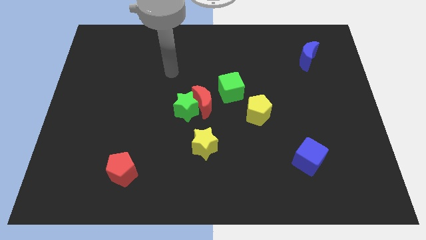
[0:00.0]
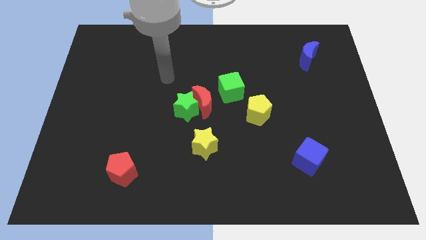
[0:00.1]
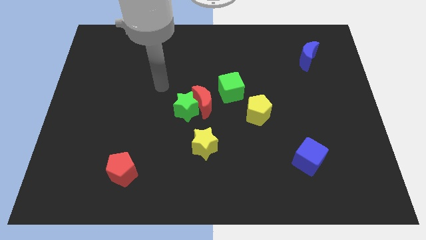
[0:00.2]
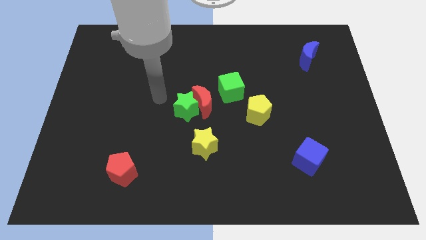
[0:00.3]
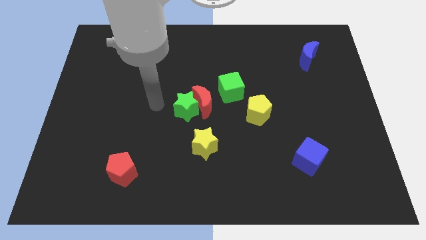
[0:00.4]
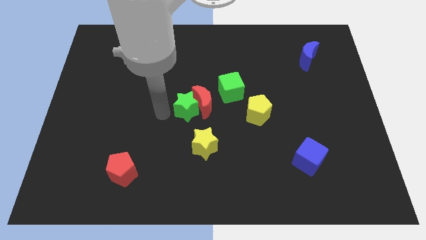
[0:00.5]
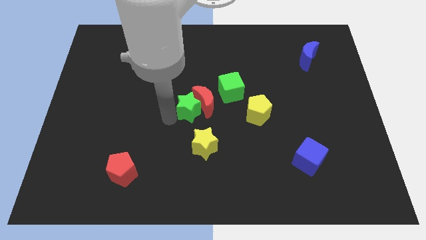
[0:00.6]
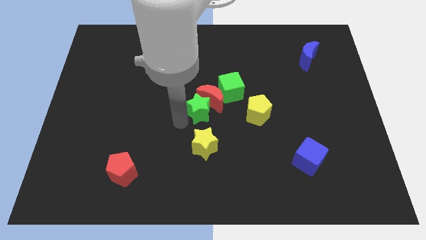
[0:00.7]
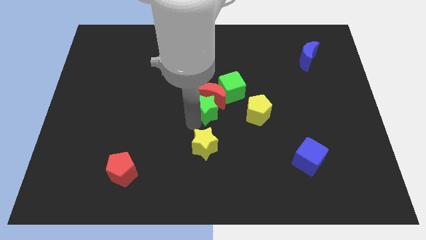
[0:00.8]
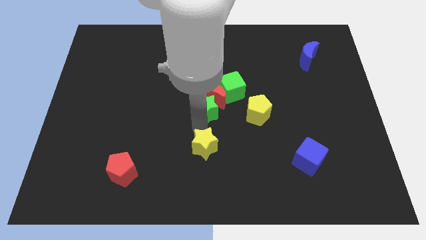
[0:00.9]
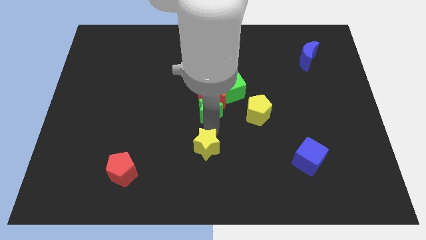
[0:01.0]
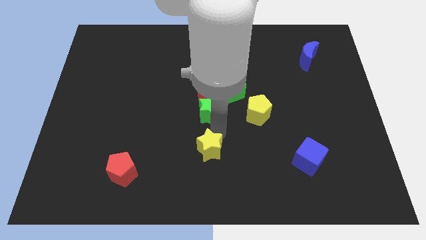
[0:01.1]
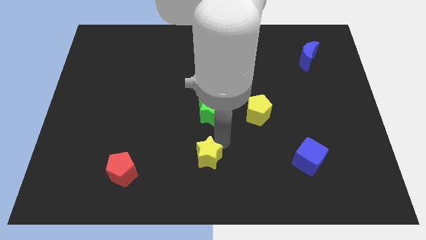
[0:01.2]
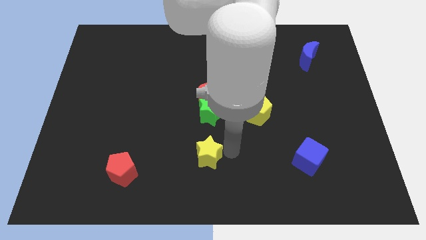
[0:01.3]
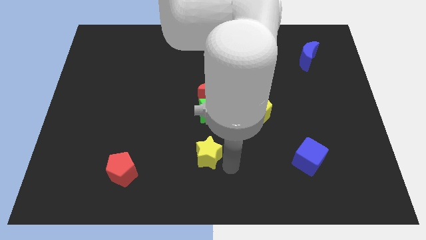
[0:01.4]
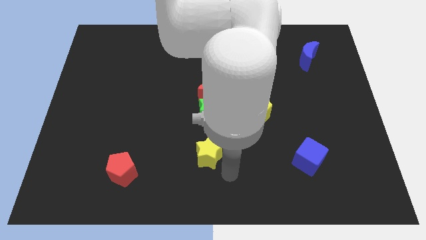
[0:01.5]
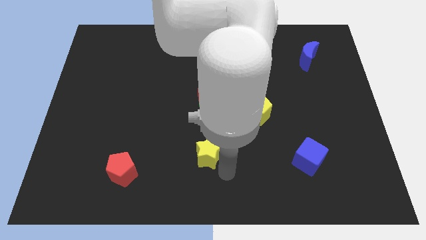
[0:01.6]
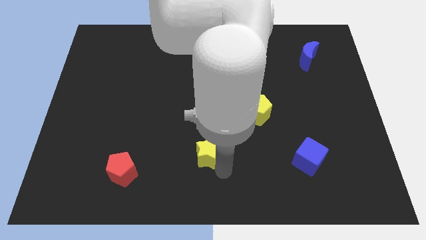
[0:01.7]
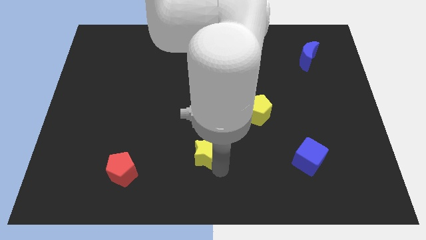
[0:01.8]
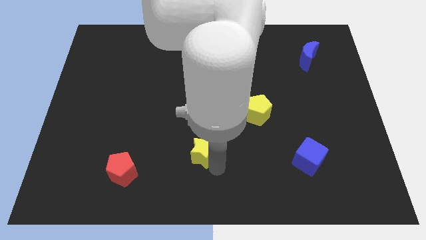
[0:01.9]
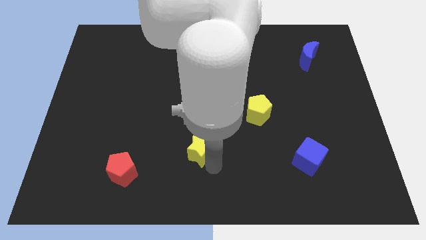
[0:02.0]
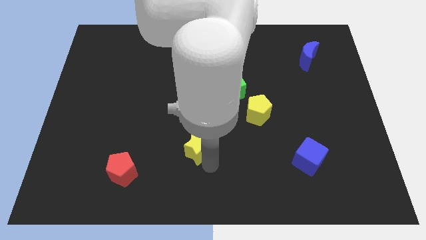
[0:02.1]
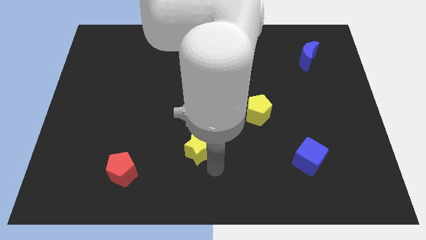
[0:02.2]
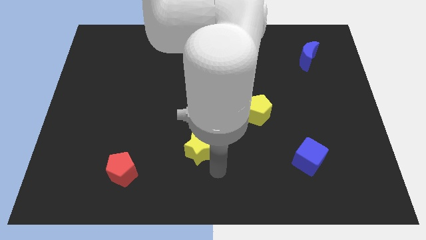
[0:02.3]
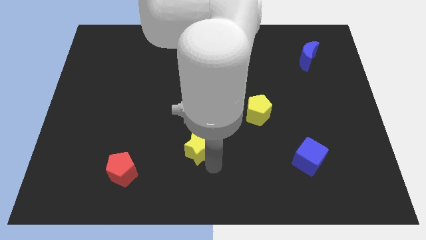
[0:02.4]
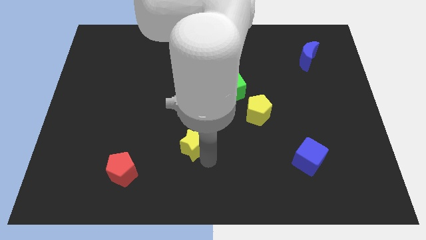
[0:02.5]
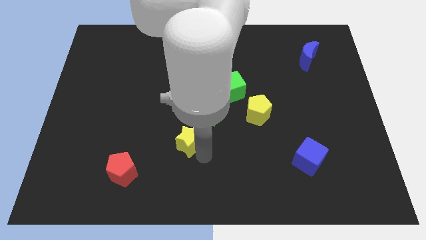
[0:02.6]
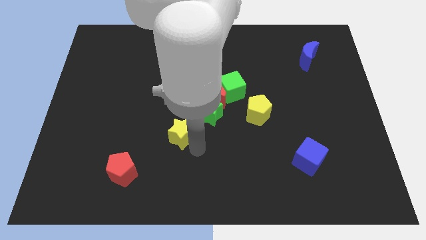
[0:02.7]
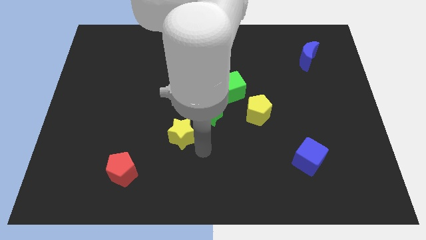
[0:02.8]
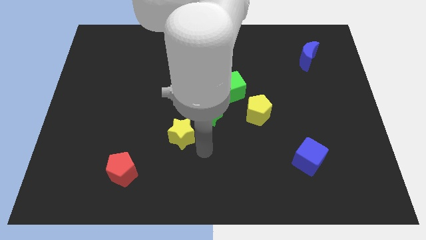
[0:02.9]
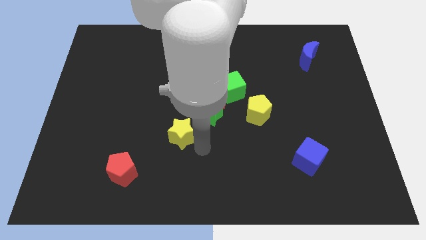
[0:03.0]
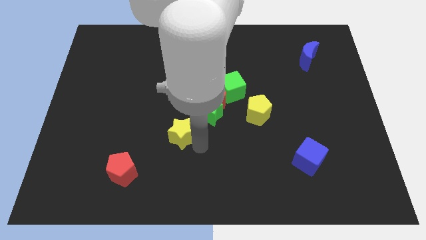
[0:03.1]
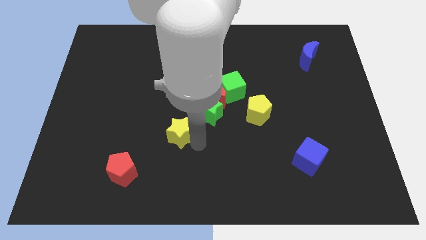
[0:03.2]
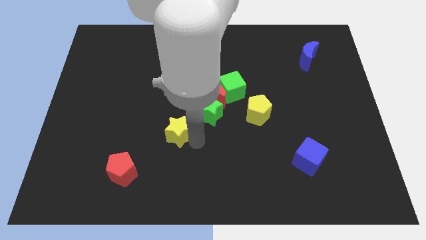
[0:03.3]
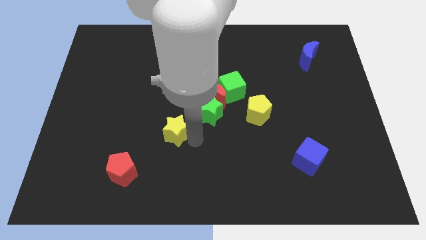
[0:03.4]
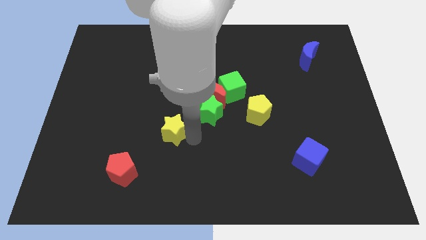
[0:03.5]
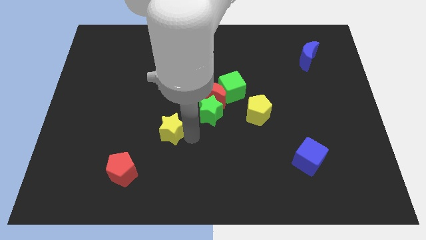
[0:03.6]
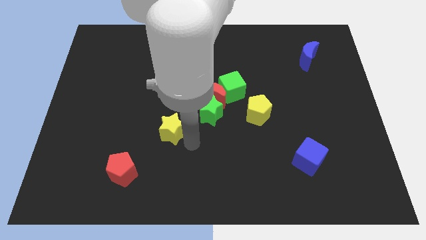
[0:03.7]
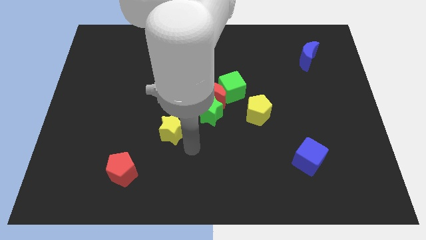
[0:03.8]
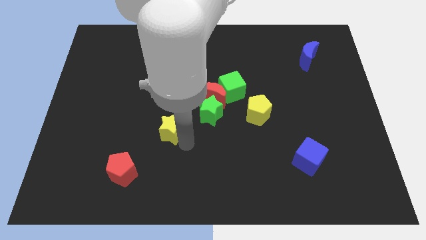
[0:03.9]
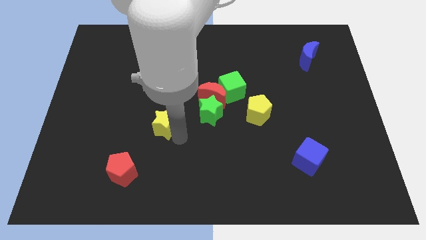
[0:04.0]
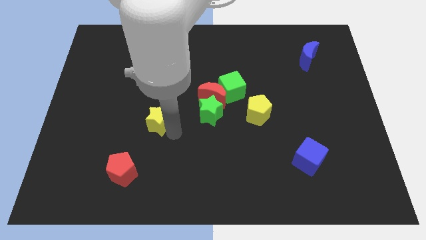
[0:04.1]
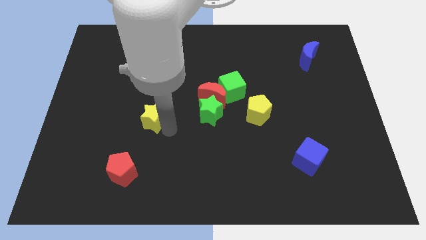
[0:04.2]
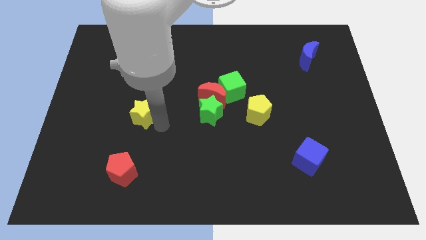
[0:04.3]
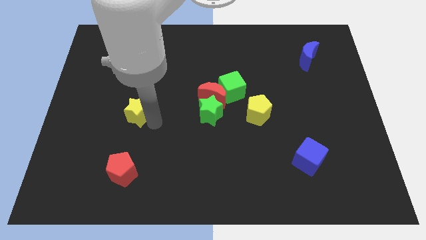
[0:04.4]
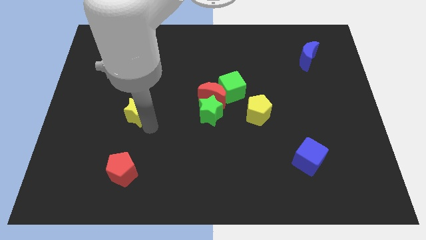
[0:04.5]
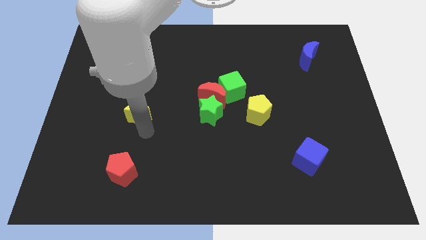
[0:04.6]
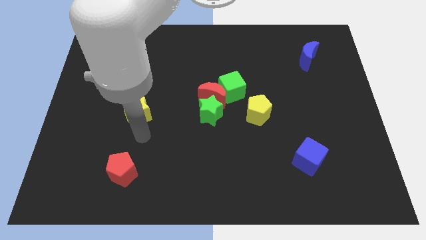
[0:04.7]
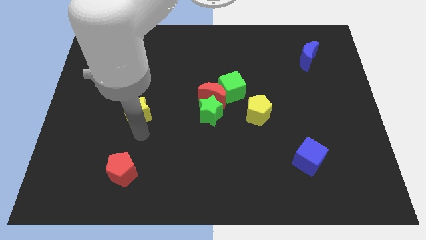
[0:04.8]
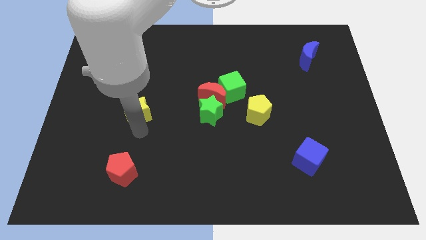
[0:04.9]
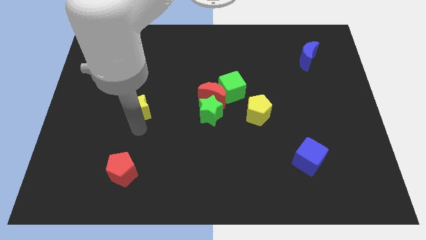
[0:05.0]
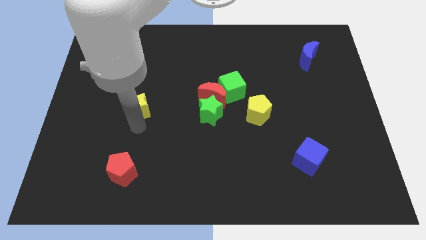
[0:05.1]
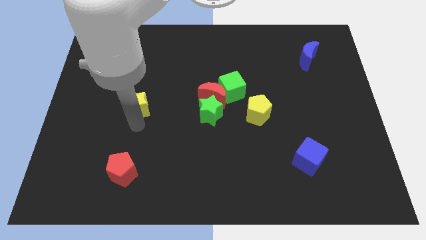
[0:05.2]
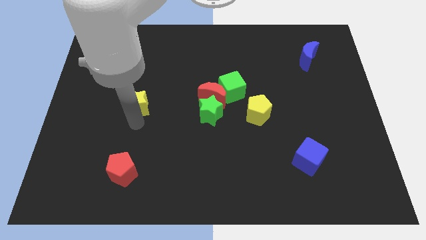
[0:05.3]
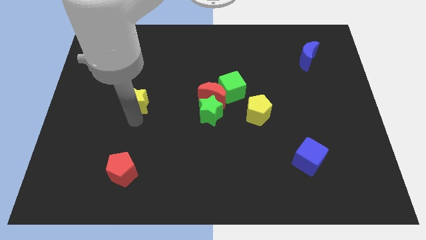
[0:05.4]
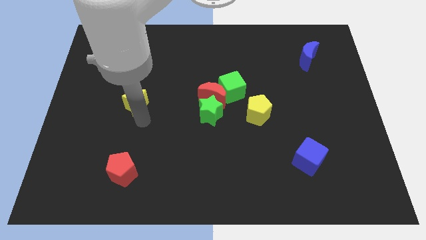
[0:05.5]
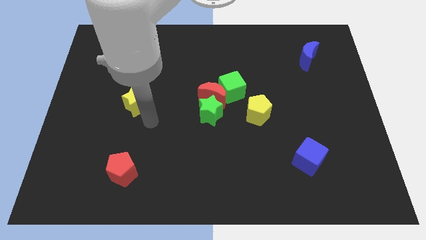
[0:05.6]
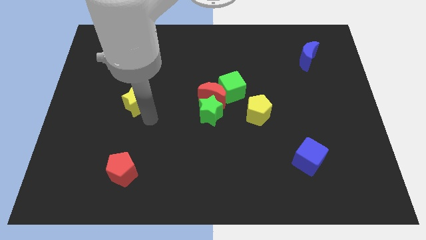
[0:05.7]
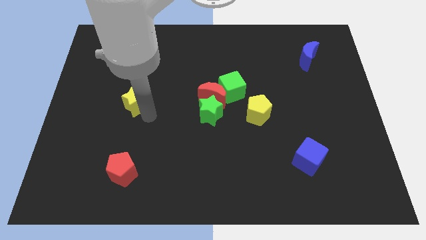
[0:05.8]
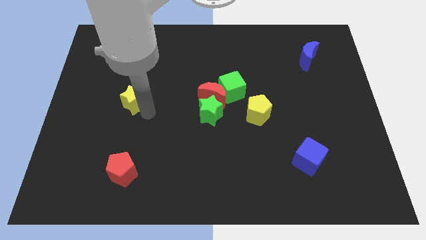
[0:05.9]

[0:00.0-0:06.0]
push the yellow star diagonally upwards and to the left

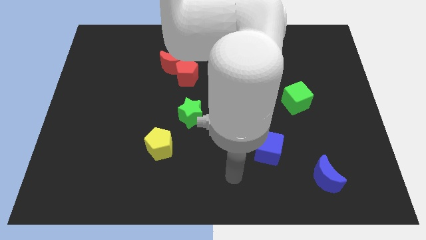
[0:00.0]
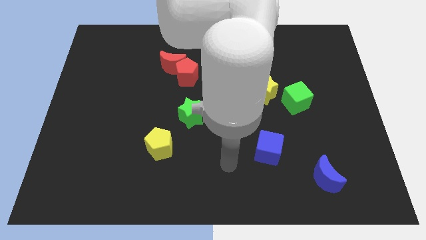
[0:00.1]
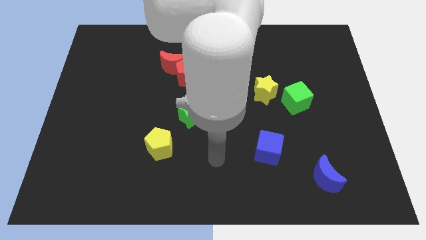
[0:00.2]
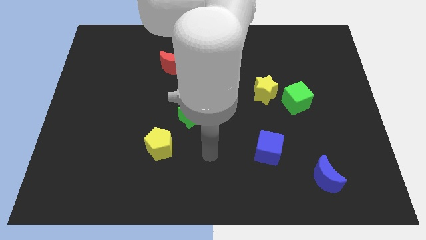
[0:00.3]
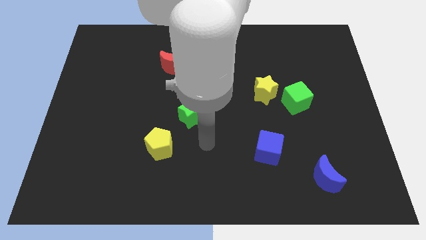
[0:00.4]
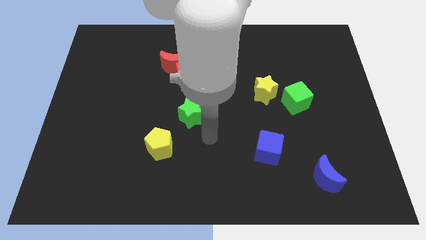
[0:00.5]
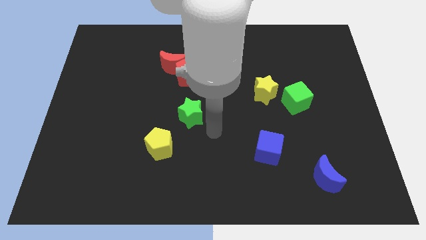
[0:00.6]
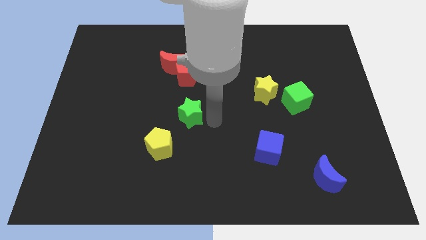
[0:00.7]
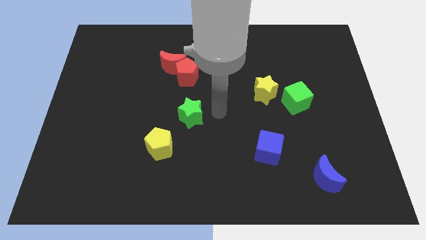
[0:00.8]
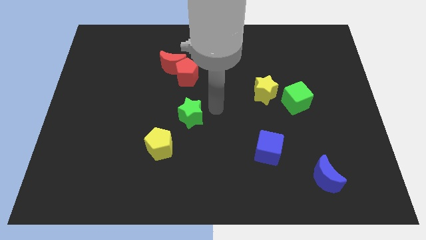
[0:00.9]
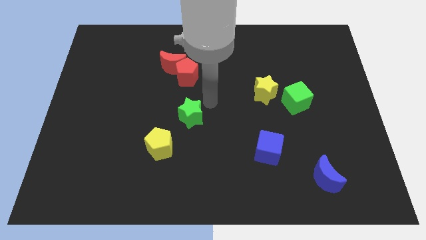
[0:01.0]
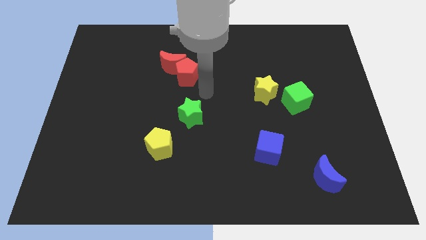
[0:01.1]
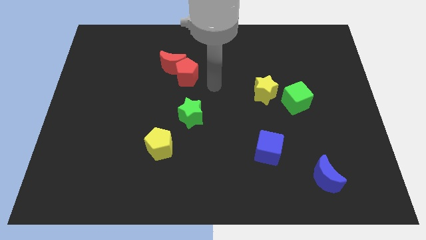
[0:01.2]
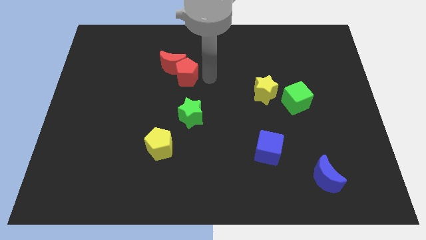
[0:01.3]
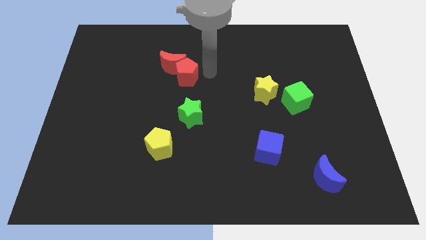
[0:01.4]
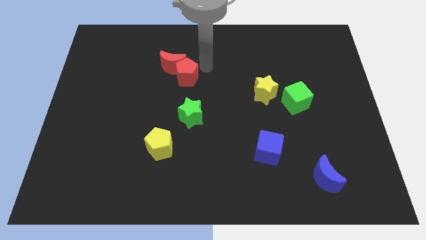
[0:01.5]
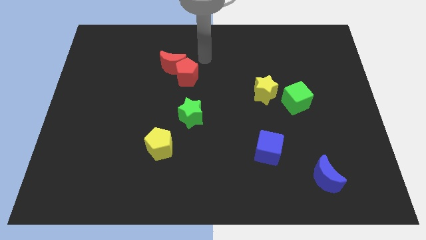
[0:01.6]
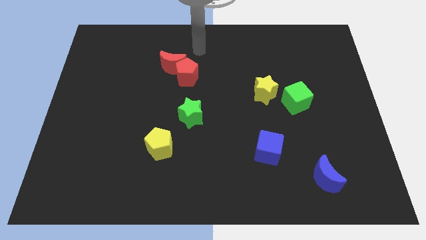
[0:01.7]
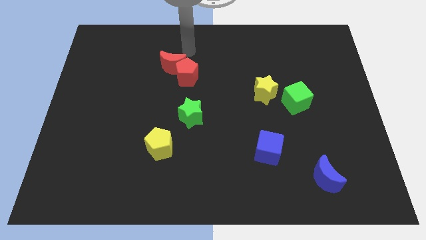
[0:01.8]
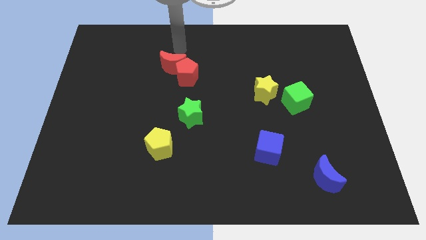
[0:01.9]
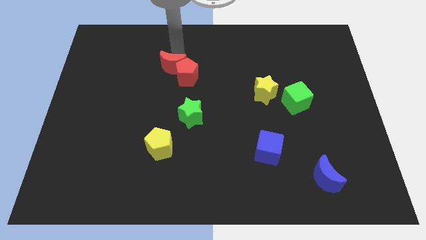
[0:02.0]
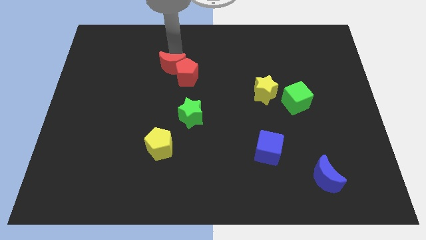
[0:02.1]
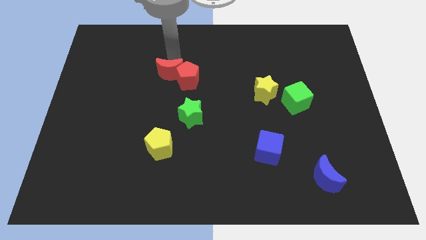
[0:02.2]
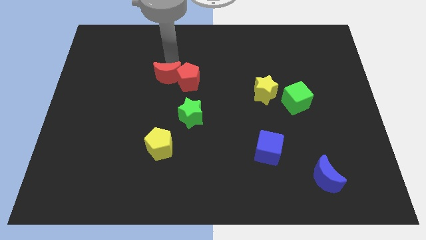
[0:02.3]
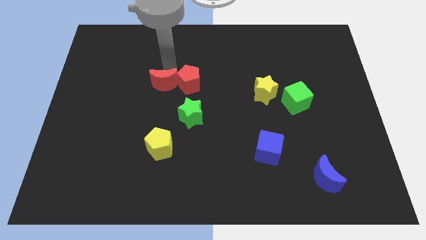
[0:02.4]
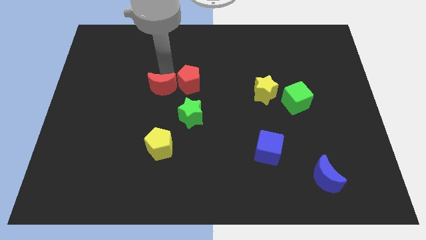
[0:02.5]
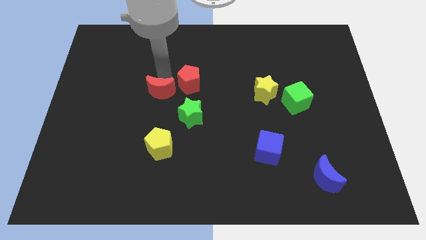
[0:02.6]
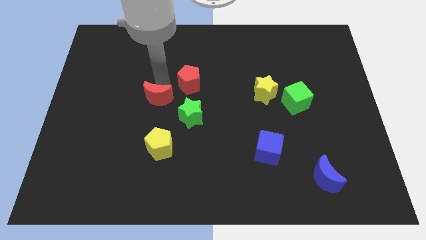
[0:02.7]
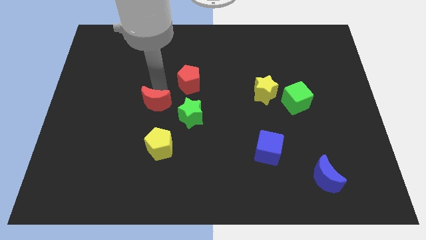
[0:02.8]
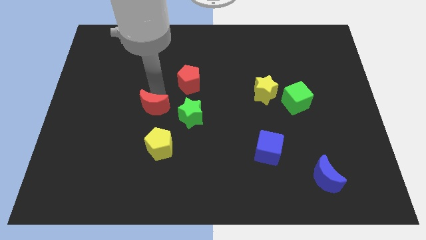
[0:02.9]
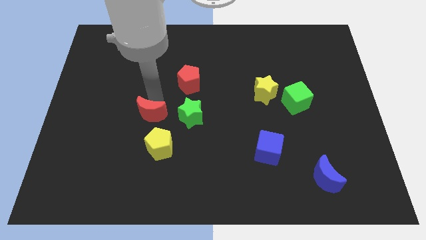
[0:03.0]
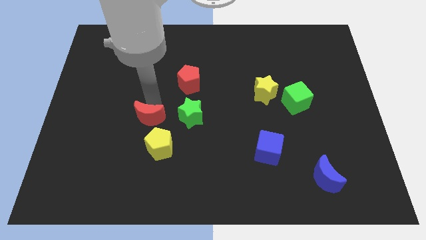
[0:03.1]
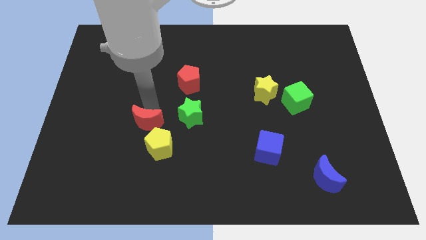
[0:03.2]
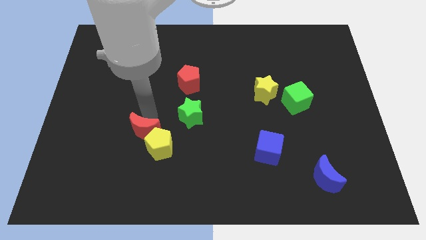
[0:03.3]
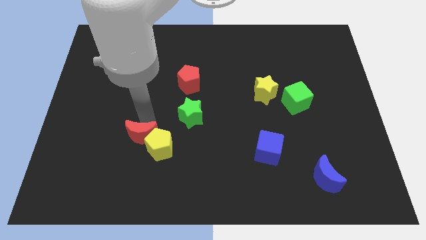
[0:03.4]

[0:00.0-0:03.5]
move the red moon down
